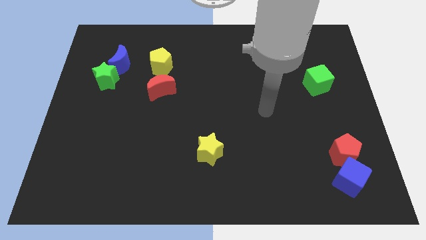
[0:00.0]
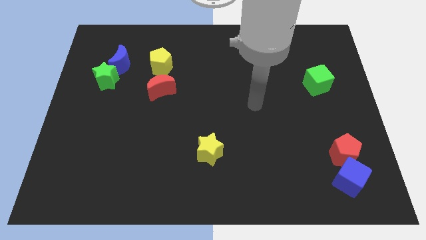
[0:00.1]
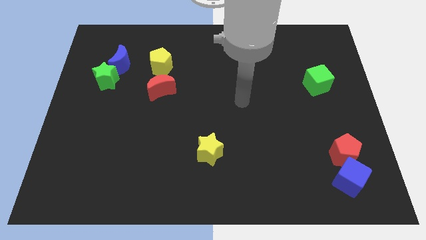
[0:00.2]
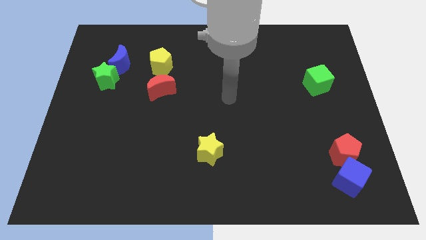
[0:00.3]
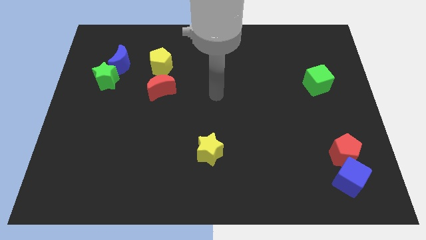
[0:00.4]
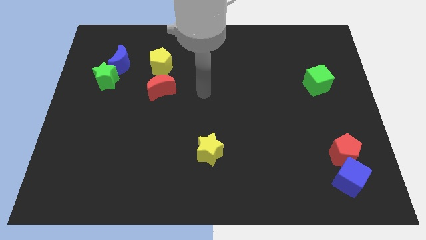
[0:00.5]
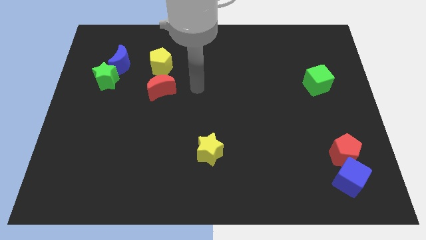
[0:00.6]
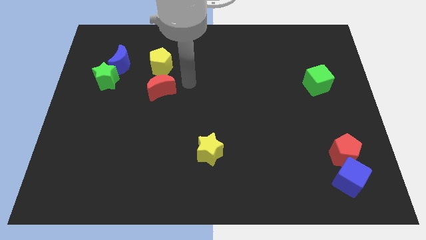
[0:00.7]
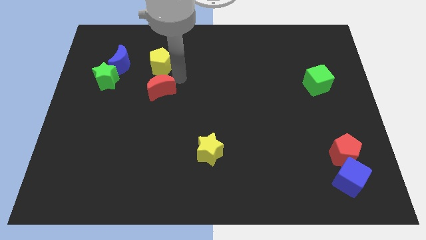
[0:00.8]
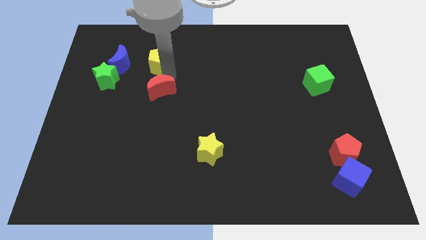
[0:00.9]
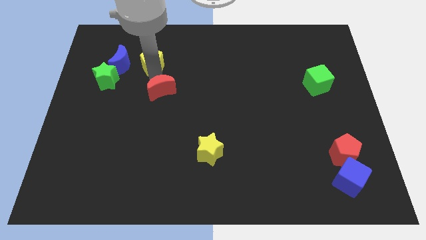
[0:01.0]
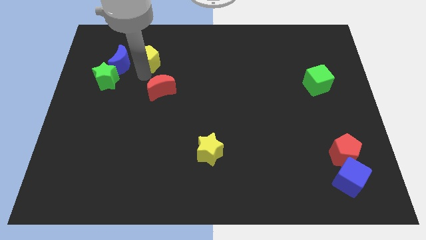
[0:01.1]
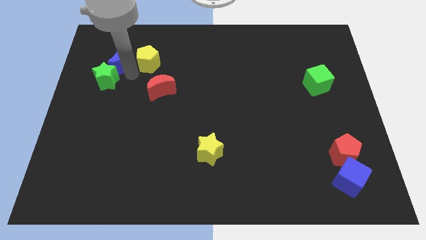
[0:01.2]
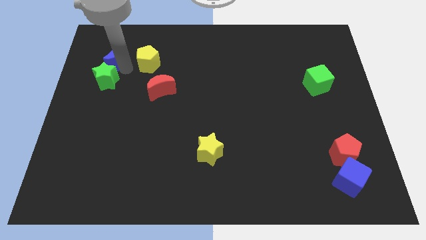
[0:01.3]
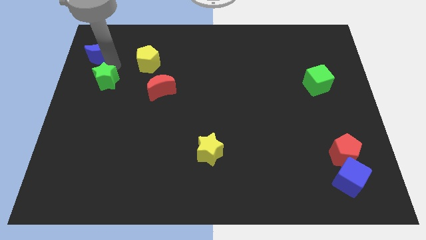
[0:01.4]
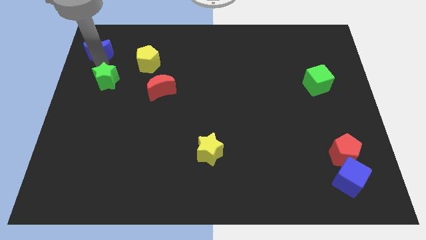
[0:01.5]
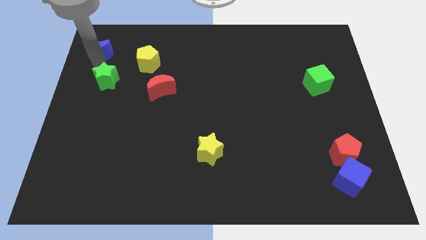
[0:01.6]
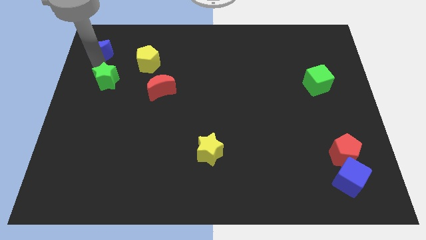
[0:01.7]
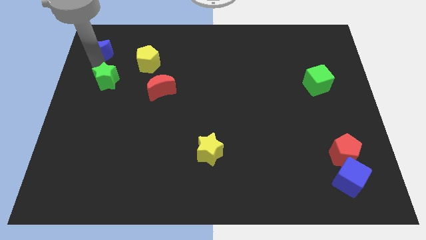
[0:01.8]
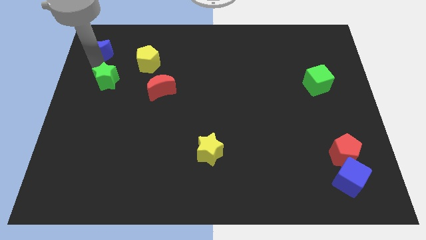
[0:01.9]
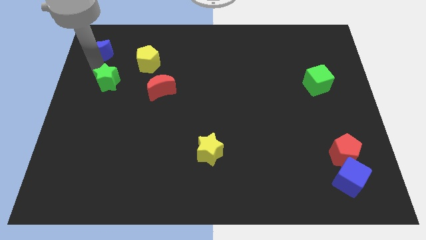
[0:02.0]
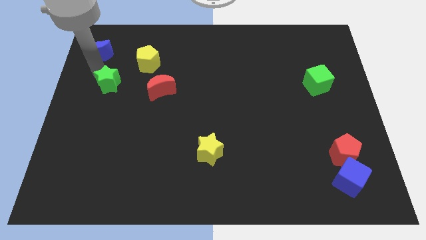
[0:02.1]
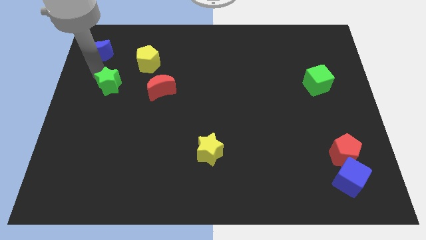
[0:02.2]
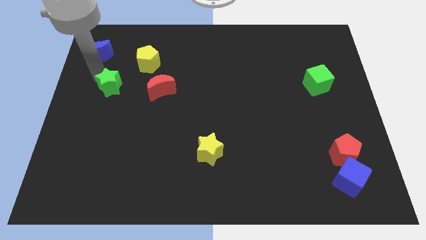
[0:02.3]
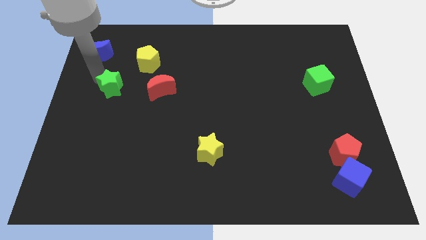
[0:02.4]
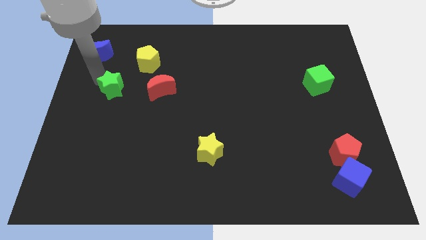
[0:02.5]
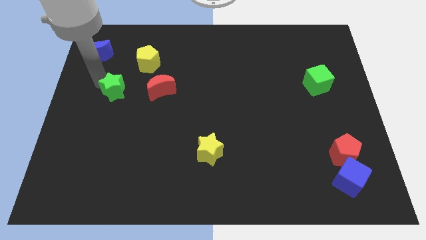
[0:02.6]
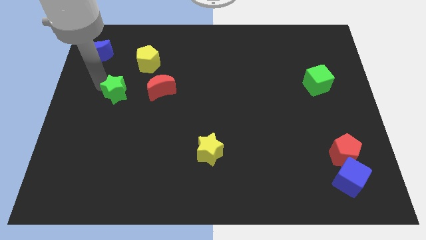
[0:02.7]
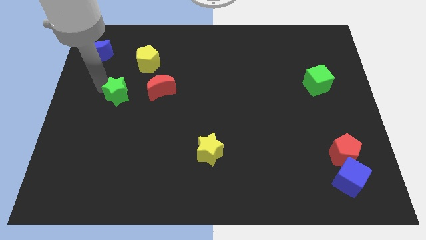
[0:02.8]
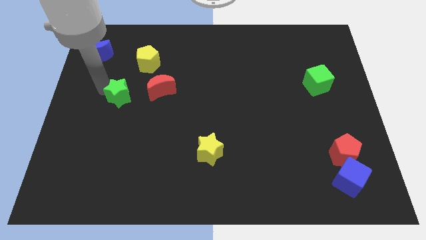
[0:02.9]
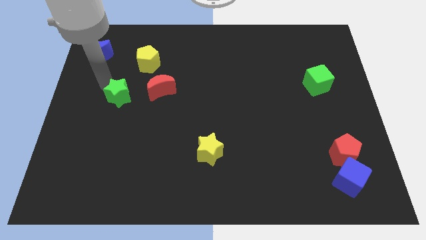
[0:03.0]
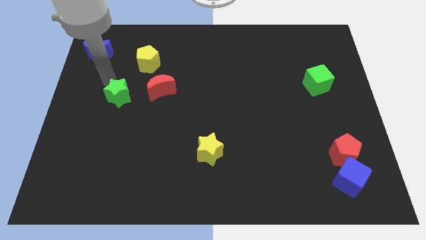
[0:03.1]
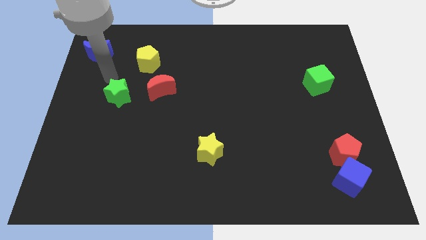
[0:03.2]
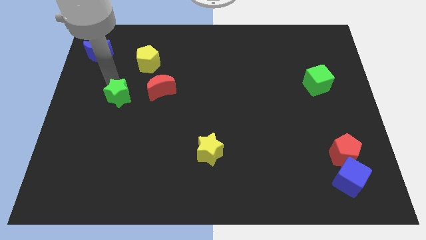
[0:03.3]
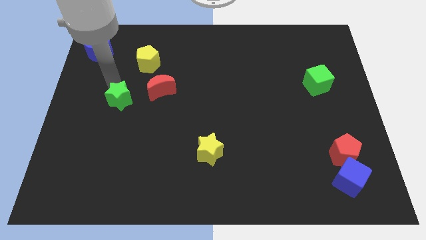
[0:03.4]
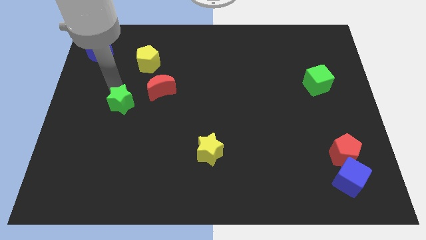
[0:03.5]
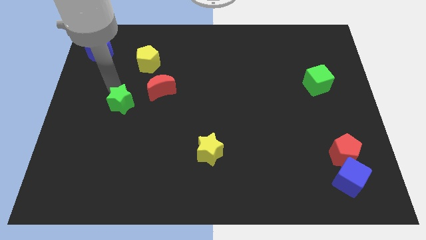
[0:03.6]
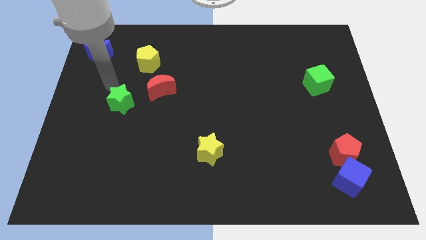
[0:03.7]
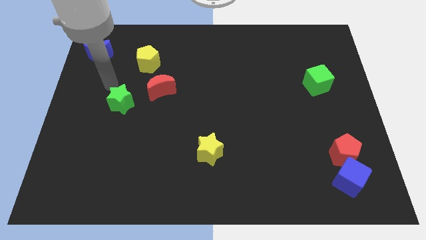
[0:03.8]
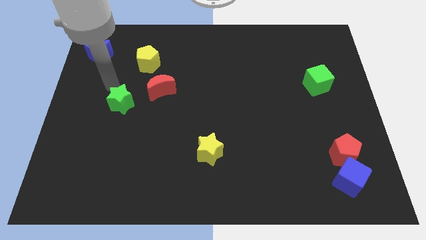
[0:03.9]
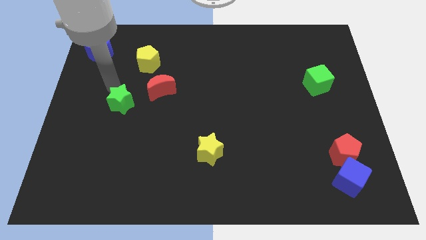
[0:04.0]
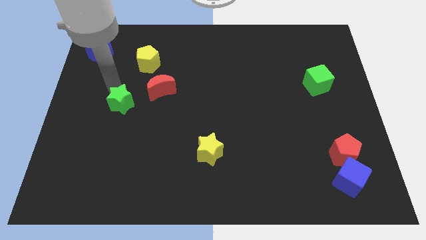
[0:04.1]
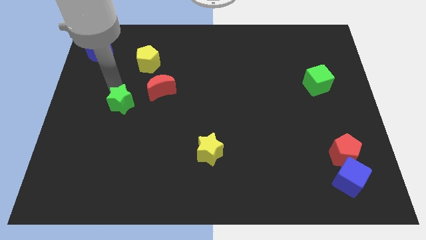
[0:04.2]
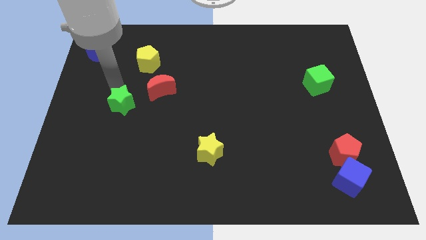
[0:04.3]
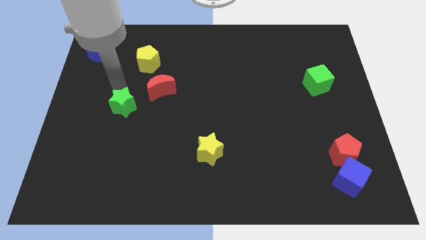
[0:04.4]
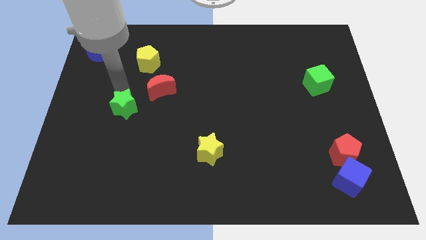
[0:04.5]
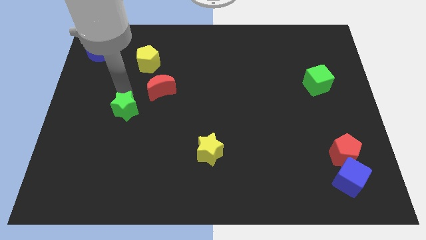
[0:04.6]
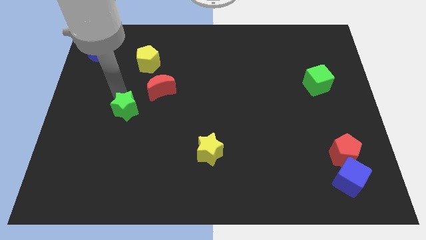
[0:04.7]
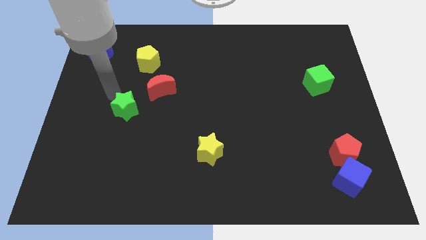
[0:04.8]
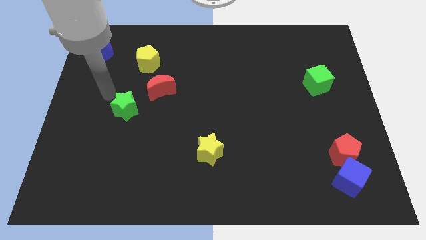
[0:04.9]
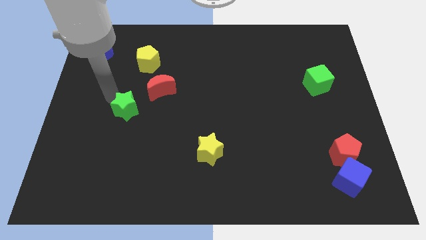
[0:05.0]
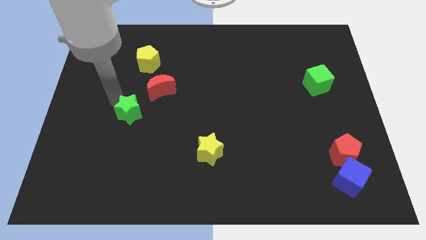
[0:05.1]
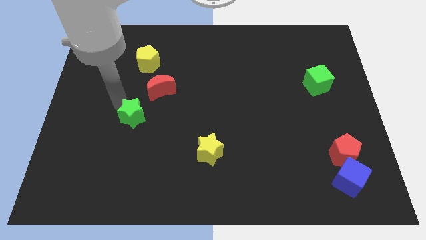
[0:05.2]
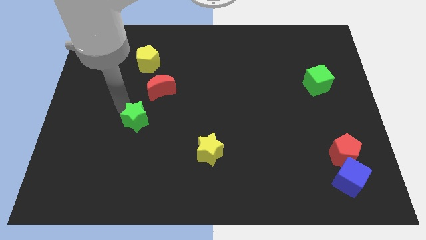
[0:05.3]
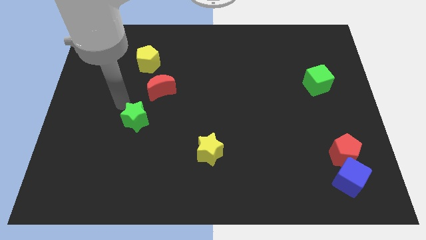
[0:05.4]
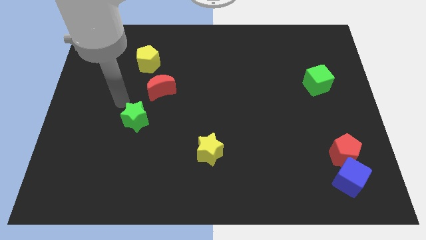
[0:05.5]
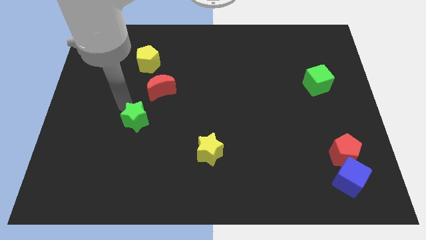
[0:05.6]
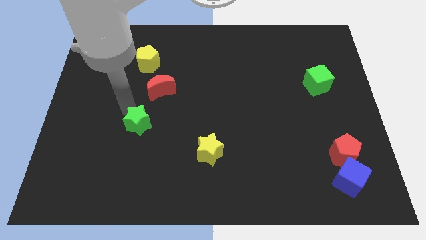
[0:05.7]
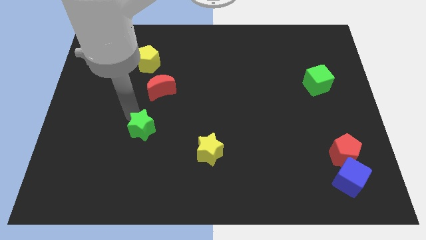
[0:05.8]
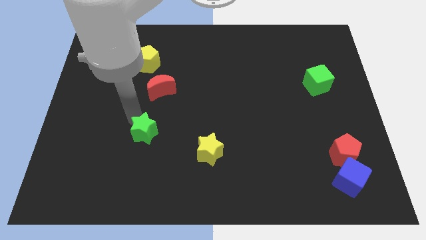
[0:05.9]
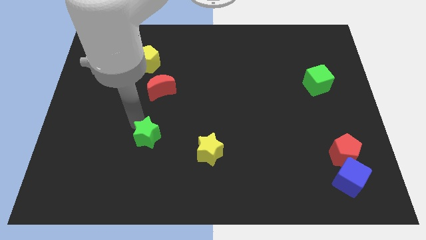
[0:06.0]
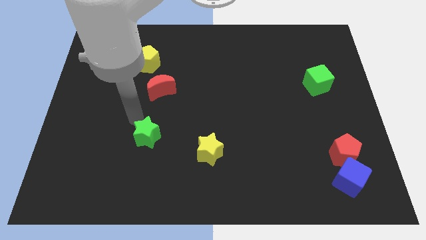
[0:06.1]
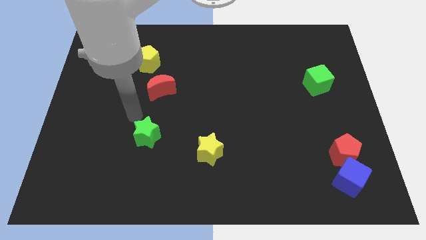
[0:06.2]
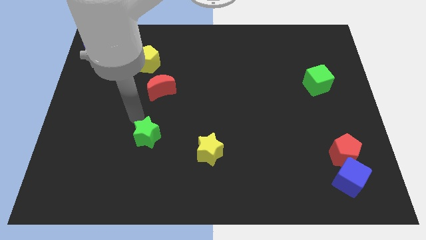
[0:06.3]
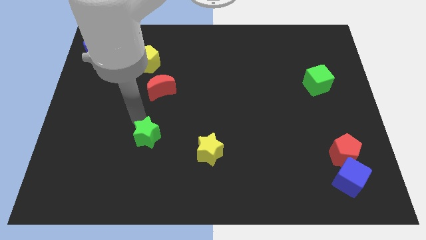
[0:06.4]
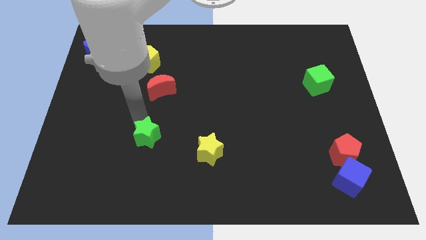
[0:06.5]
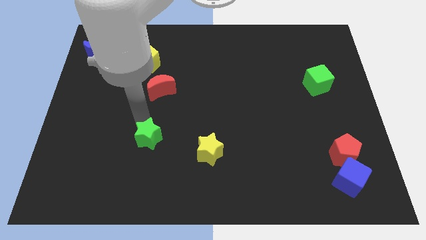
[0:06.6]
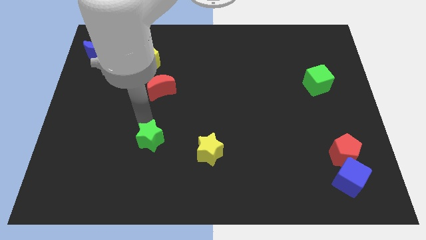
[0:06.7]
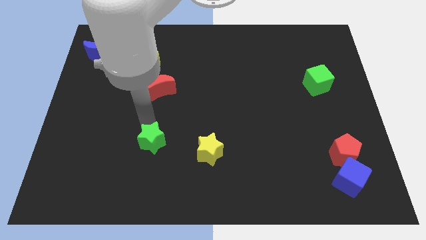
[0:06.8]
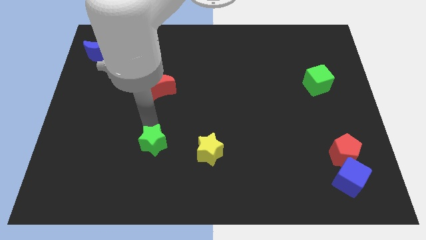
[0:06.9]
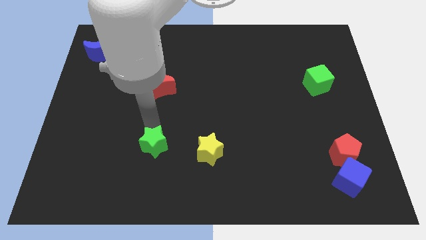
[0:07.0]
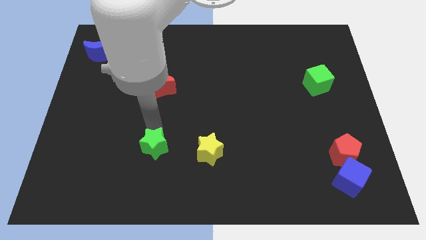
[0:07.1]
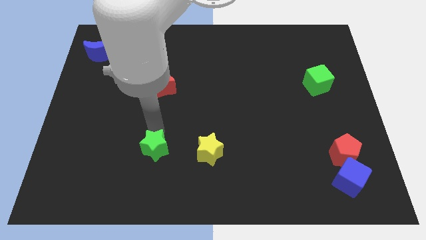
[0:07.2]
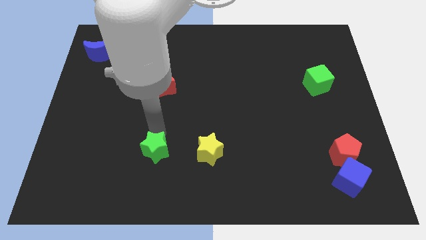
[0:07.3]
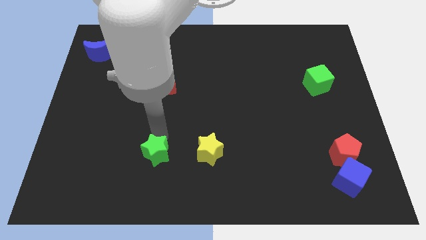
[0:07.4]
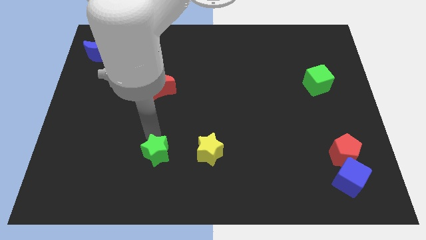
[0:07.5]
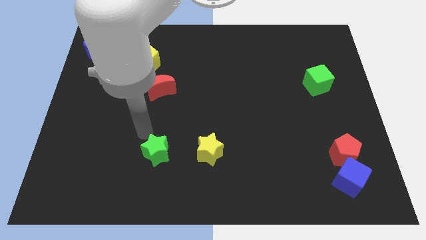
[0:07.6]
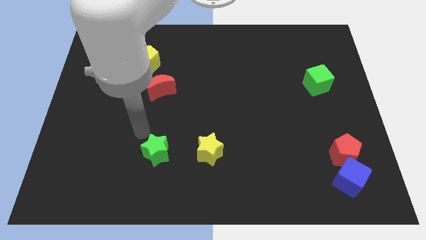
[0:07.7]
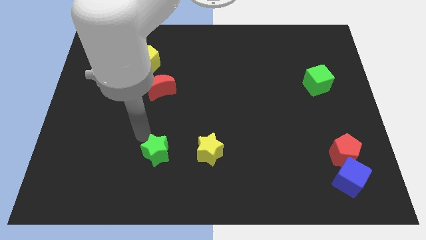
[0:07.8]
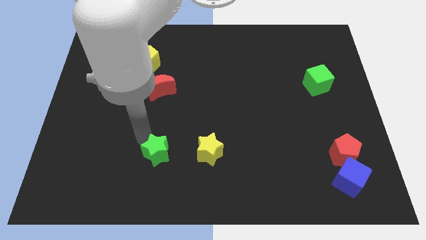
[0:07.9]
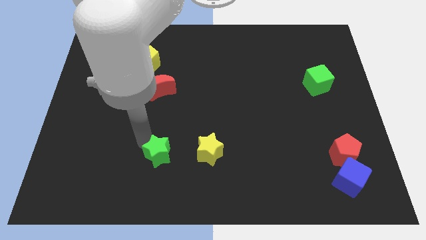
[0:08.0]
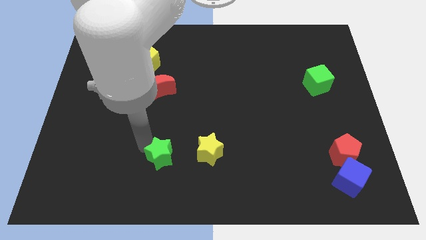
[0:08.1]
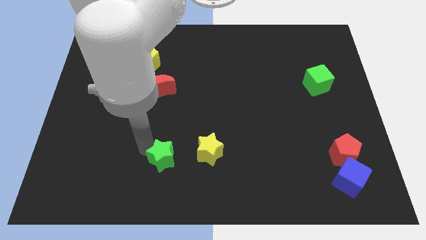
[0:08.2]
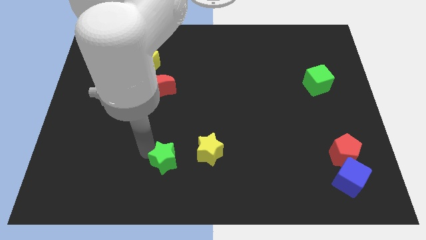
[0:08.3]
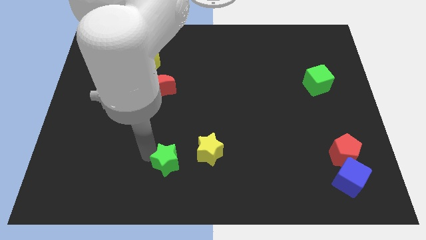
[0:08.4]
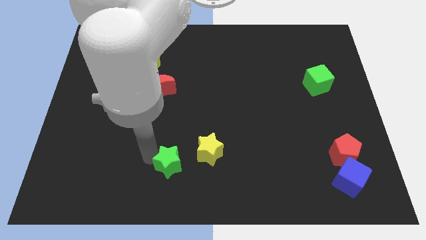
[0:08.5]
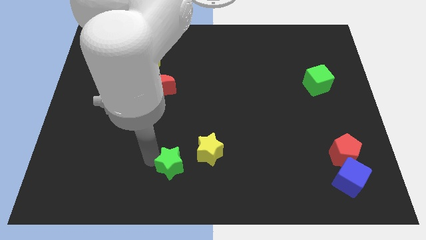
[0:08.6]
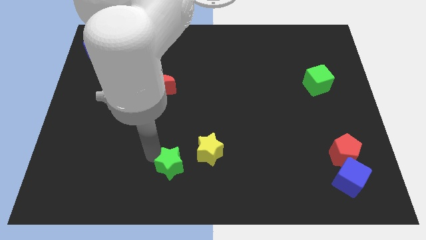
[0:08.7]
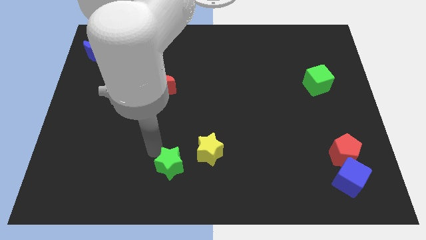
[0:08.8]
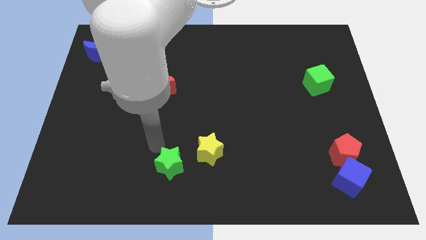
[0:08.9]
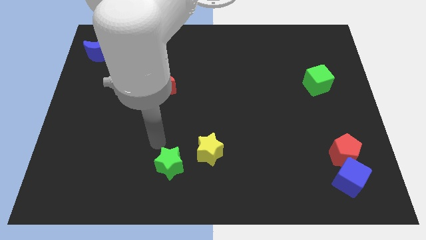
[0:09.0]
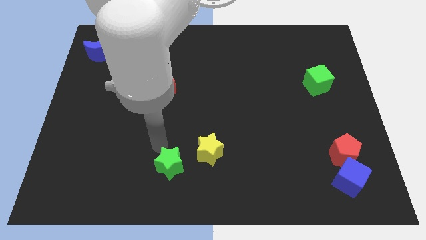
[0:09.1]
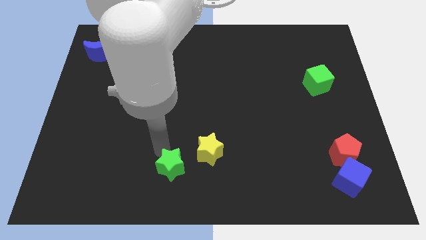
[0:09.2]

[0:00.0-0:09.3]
push the green star to the bottom
